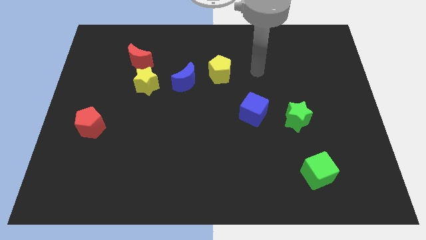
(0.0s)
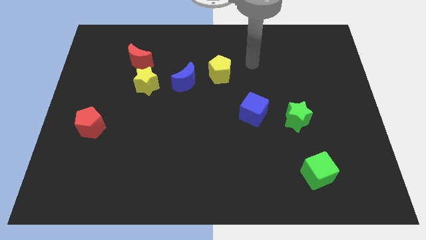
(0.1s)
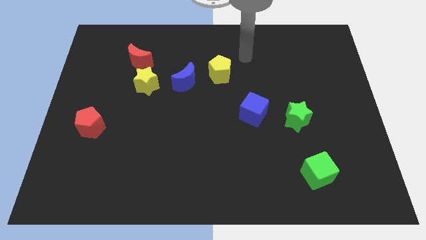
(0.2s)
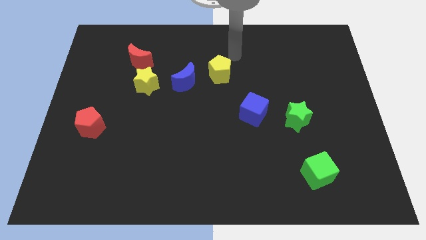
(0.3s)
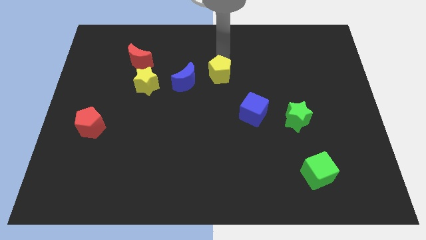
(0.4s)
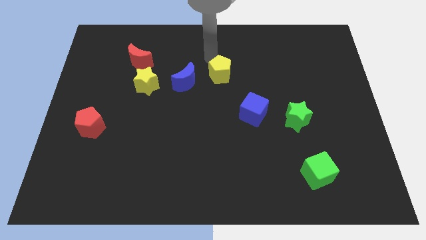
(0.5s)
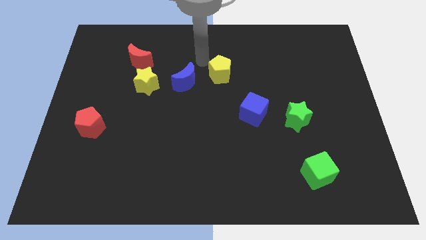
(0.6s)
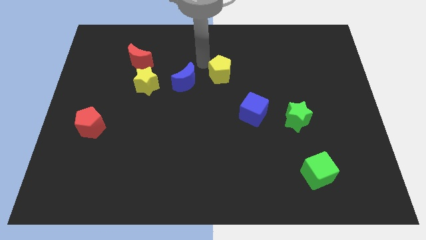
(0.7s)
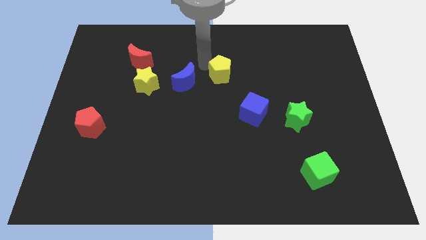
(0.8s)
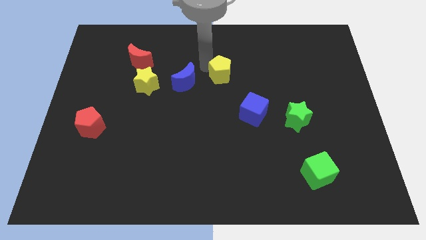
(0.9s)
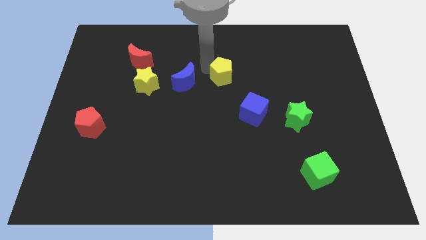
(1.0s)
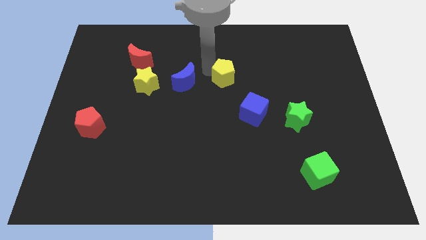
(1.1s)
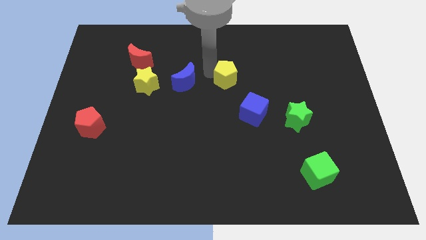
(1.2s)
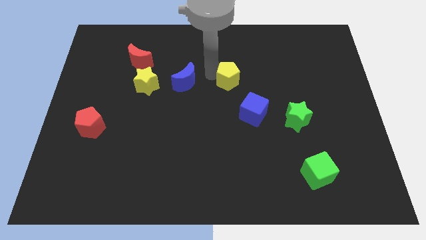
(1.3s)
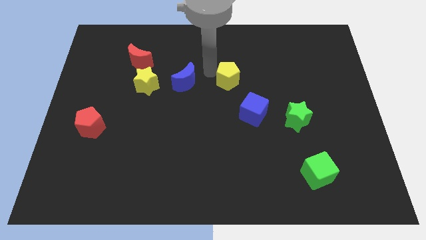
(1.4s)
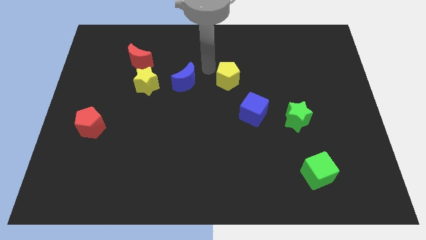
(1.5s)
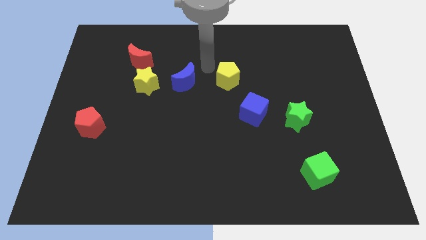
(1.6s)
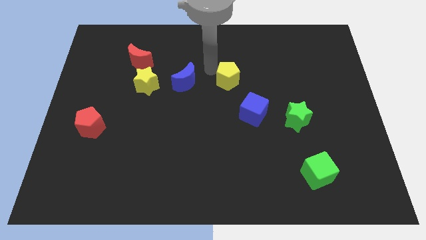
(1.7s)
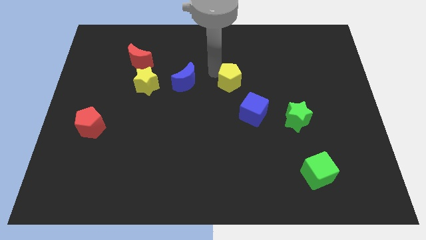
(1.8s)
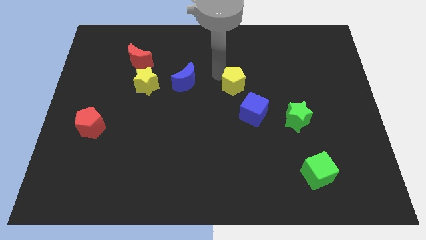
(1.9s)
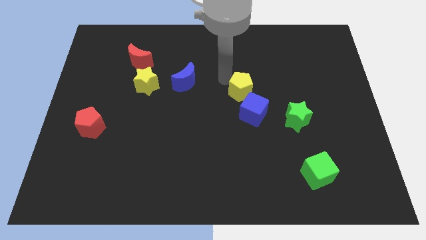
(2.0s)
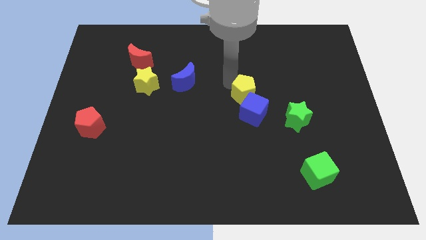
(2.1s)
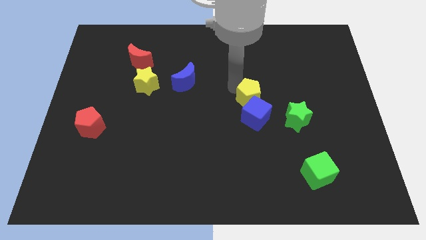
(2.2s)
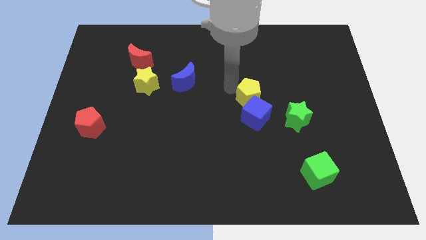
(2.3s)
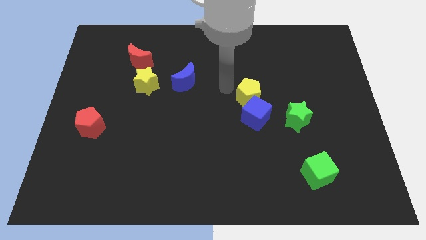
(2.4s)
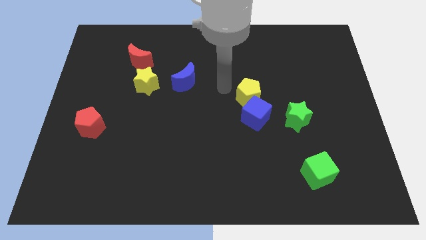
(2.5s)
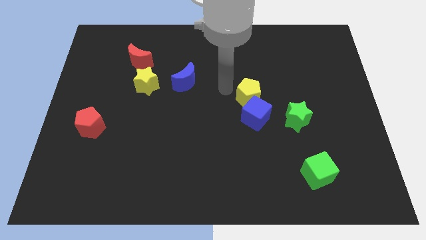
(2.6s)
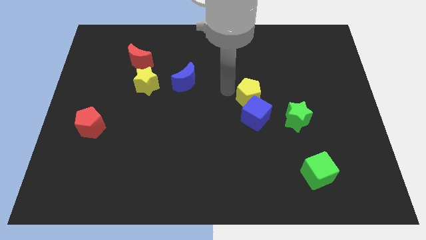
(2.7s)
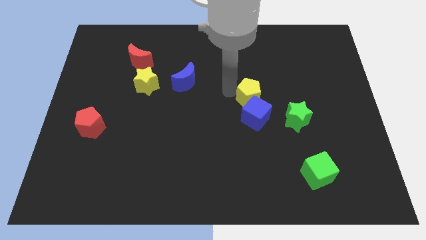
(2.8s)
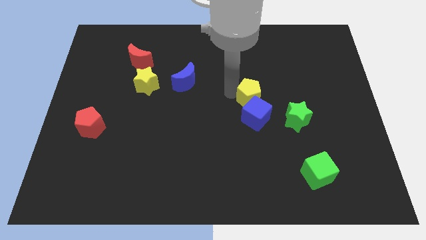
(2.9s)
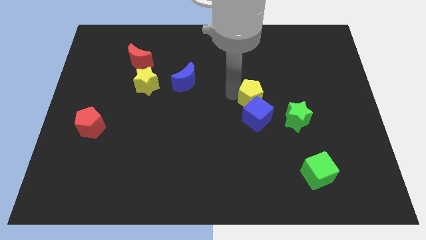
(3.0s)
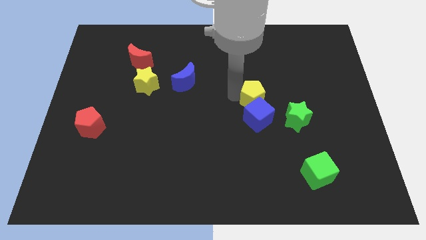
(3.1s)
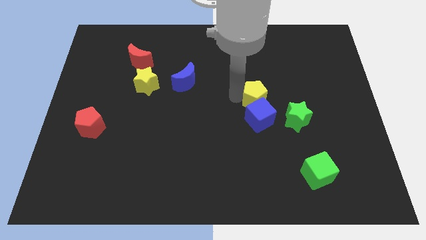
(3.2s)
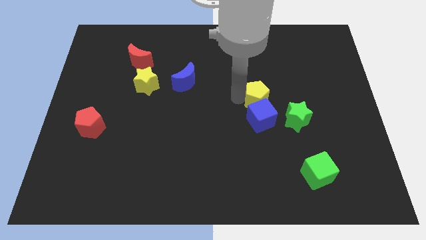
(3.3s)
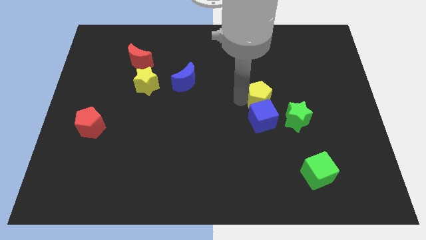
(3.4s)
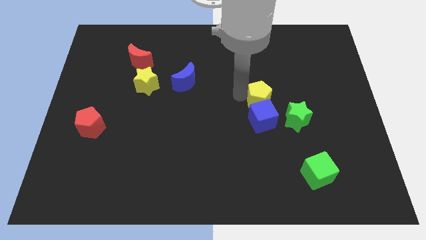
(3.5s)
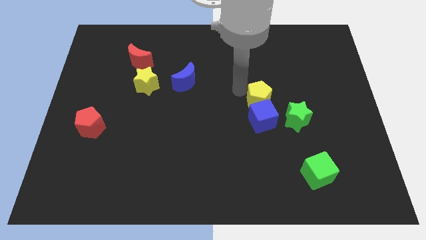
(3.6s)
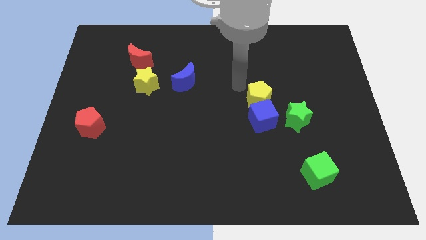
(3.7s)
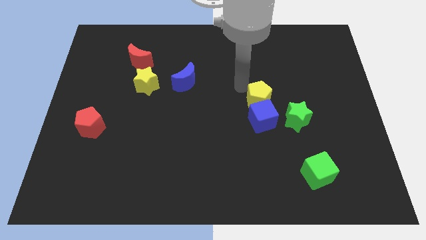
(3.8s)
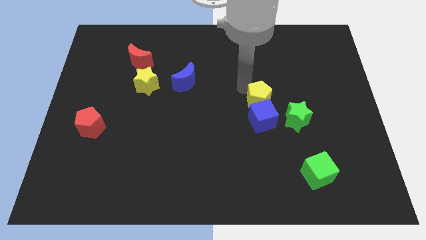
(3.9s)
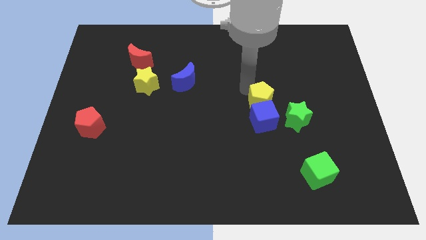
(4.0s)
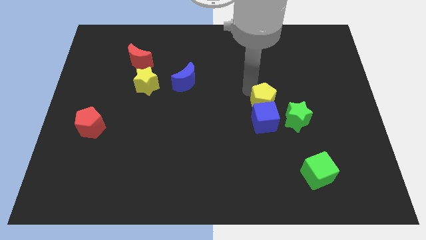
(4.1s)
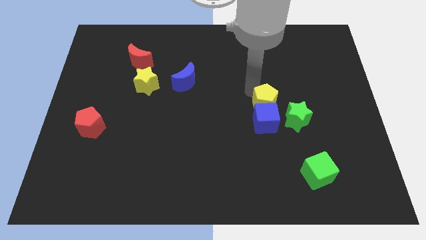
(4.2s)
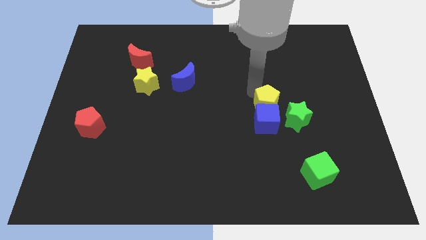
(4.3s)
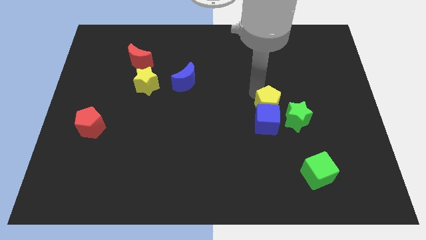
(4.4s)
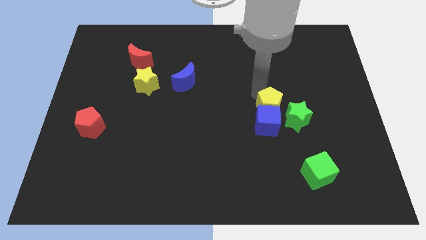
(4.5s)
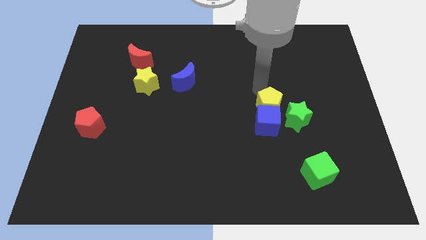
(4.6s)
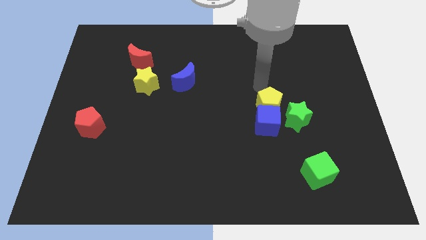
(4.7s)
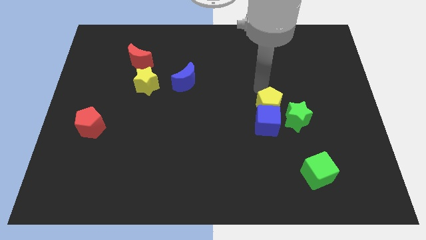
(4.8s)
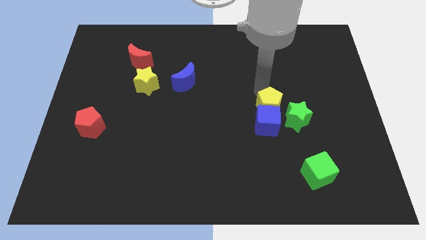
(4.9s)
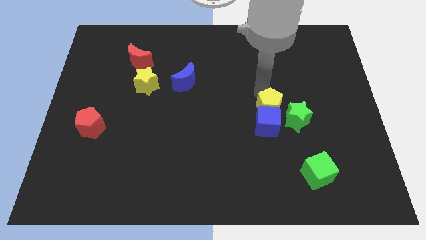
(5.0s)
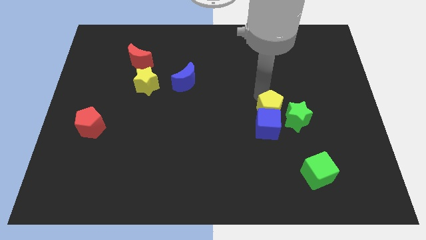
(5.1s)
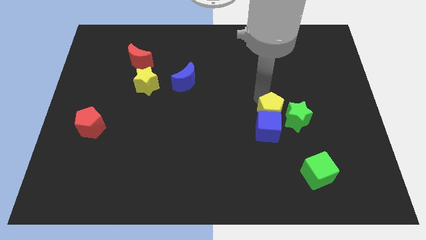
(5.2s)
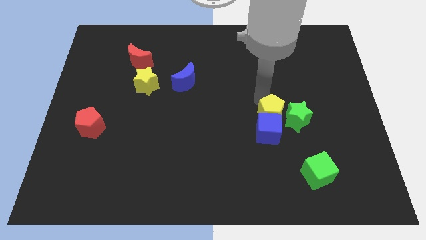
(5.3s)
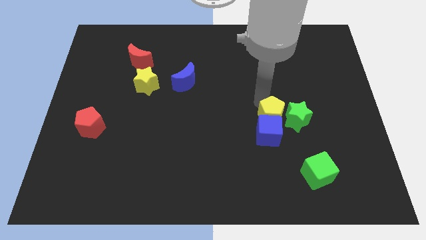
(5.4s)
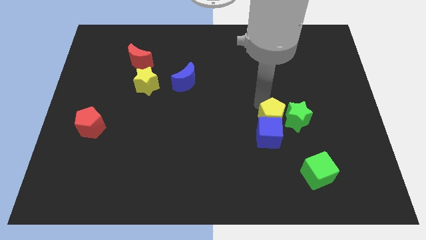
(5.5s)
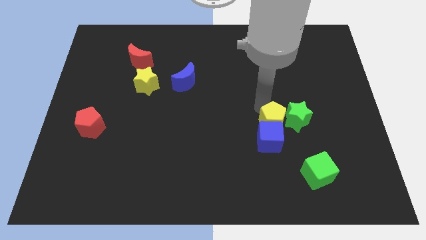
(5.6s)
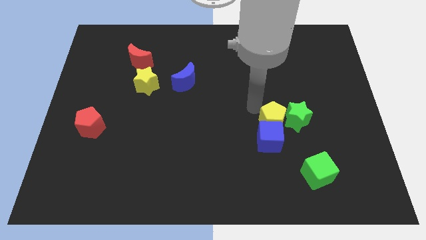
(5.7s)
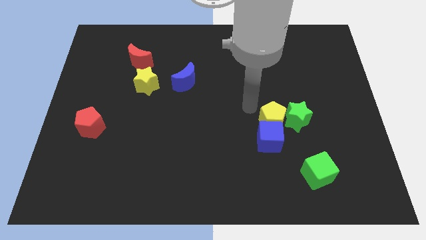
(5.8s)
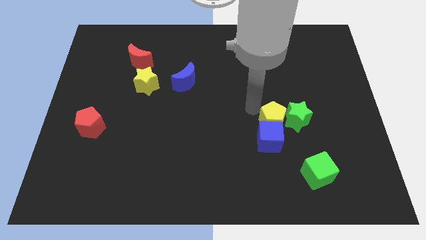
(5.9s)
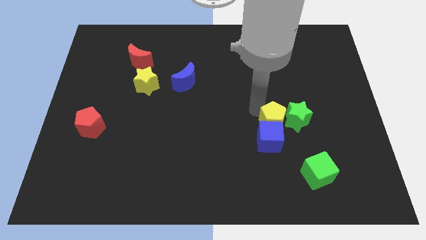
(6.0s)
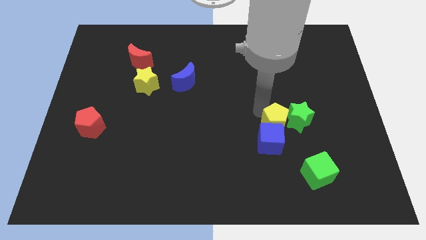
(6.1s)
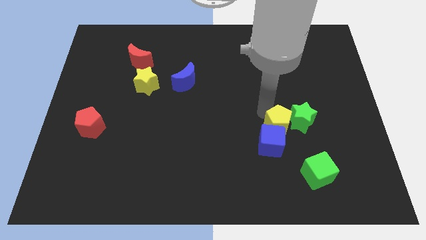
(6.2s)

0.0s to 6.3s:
move the yellow pentagon downwards and then right

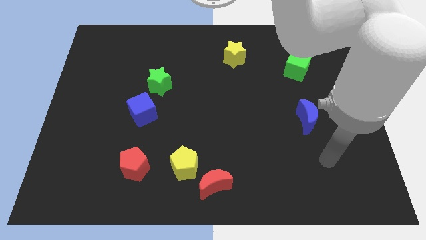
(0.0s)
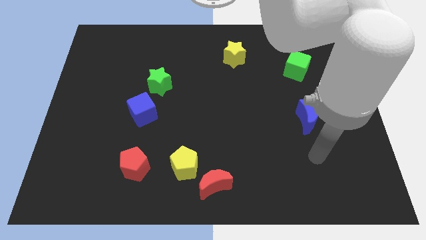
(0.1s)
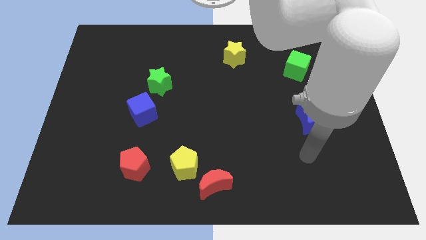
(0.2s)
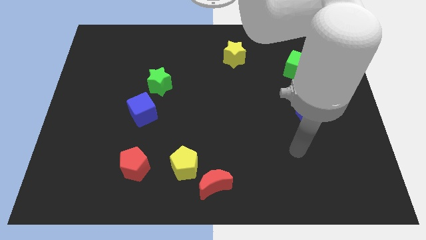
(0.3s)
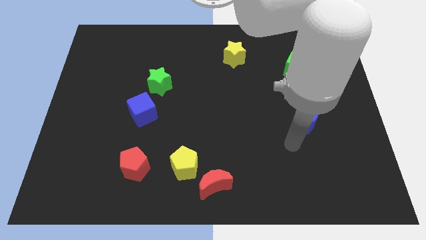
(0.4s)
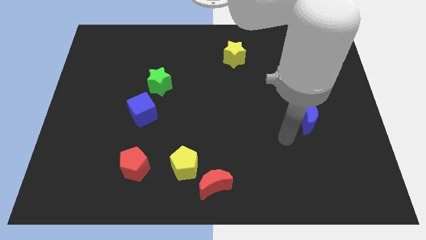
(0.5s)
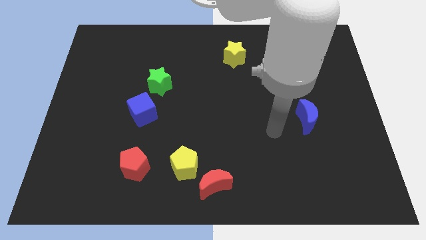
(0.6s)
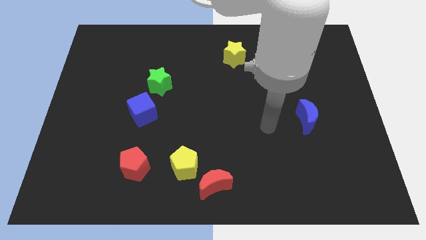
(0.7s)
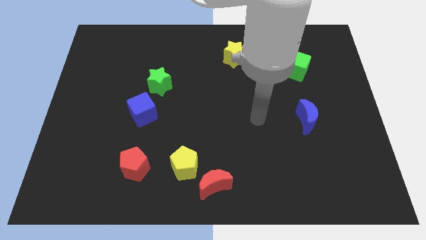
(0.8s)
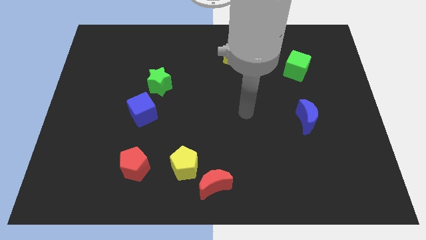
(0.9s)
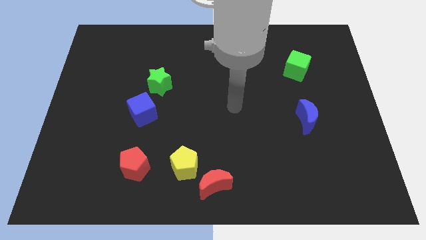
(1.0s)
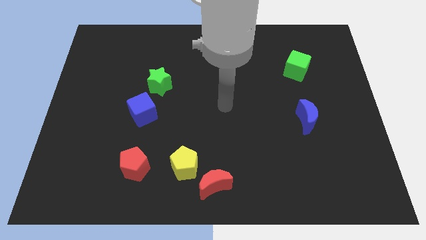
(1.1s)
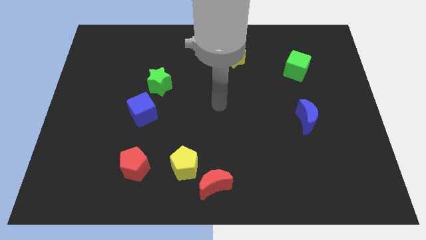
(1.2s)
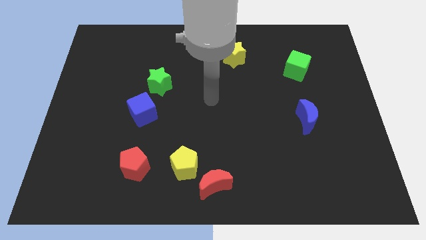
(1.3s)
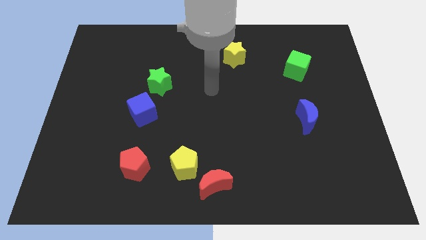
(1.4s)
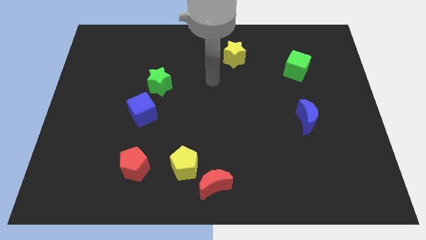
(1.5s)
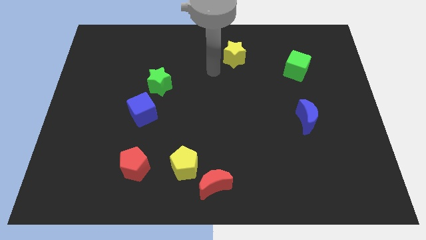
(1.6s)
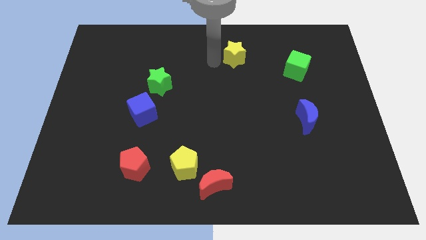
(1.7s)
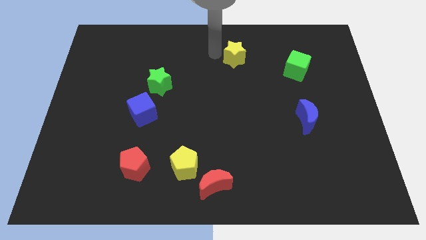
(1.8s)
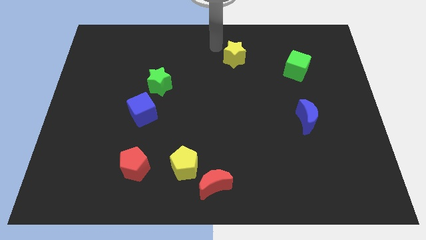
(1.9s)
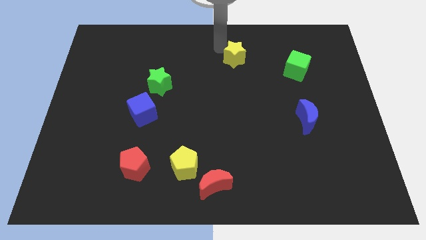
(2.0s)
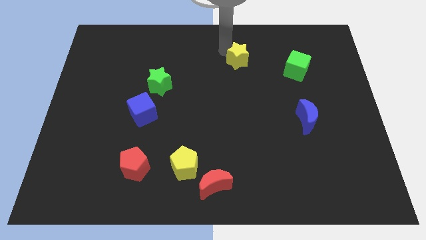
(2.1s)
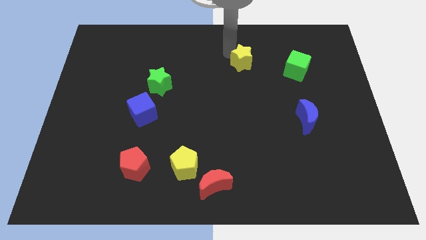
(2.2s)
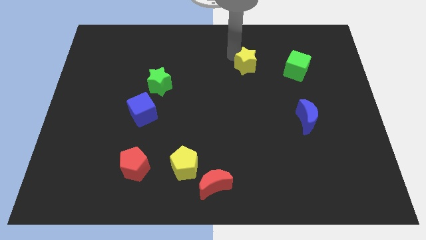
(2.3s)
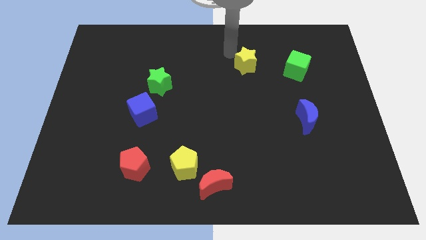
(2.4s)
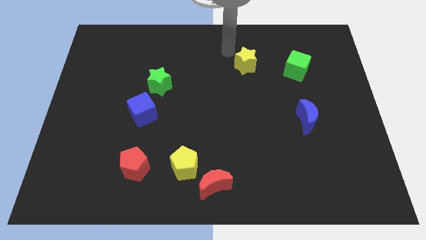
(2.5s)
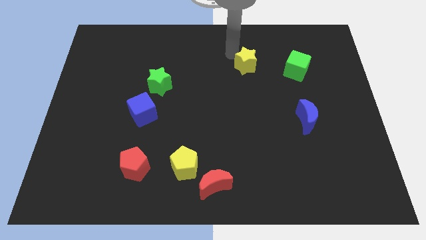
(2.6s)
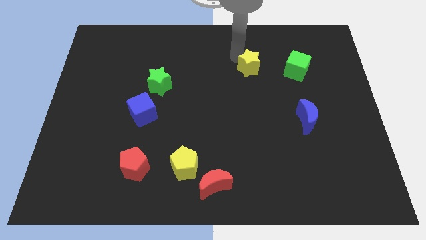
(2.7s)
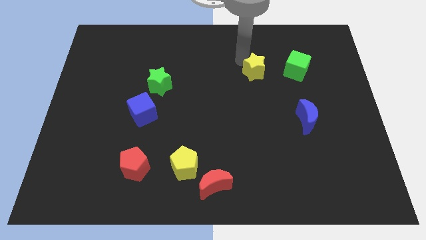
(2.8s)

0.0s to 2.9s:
push the yellow star downwards and then right slightly
